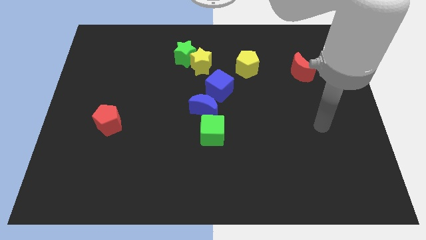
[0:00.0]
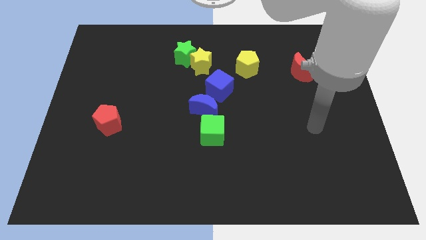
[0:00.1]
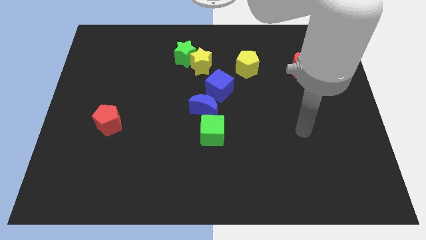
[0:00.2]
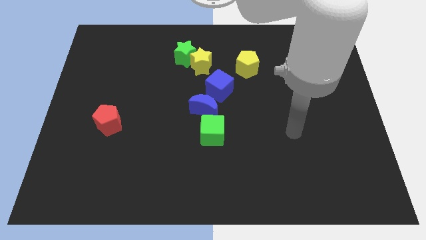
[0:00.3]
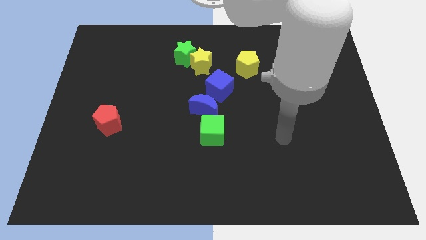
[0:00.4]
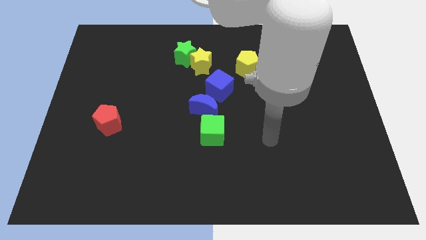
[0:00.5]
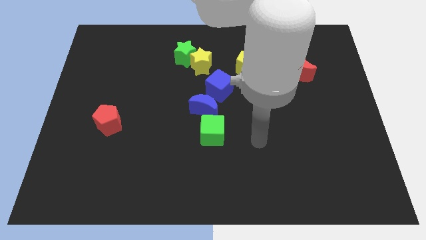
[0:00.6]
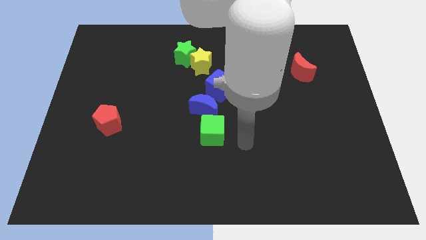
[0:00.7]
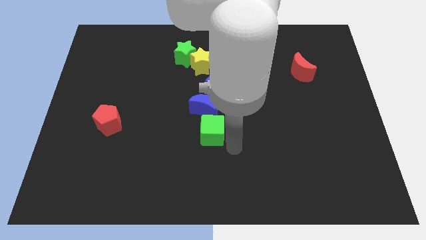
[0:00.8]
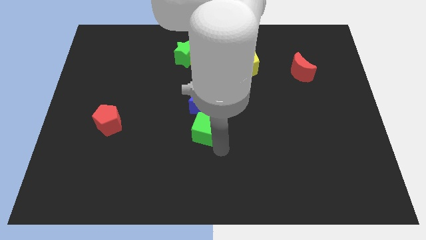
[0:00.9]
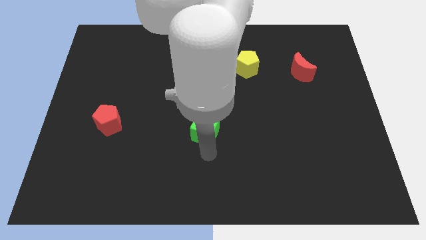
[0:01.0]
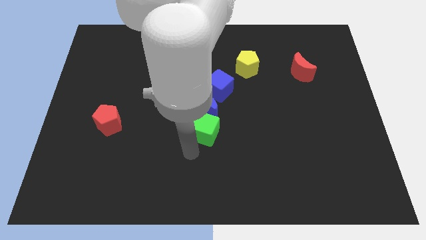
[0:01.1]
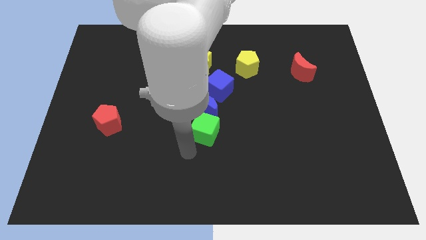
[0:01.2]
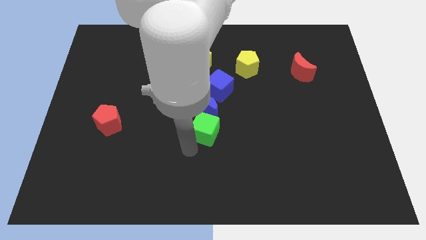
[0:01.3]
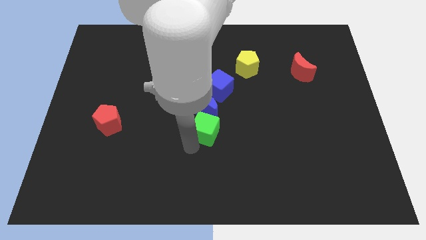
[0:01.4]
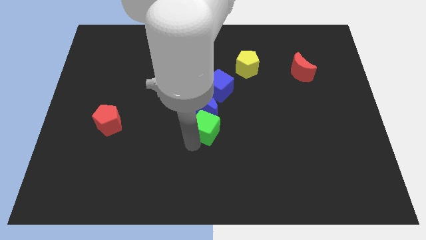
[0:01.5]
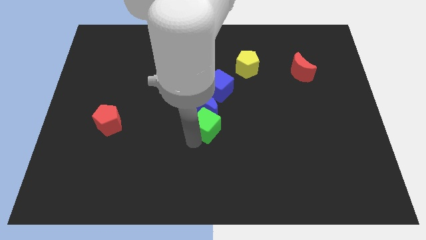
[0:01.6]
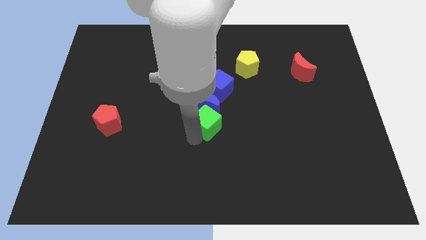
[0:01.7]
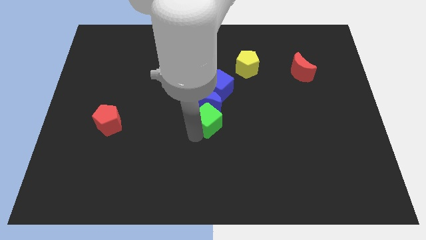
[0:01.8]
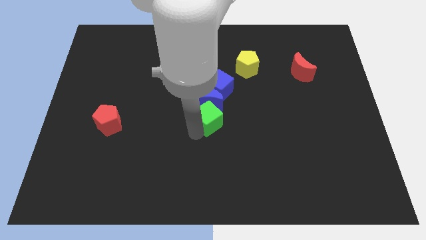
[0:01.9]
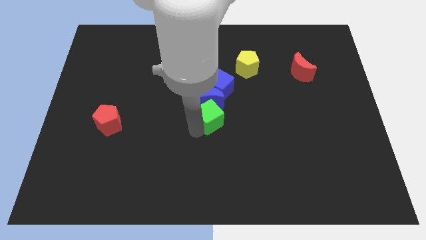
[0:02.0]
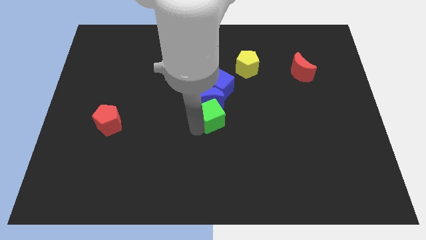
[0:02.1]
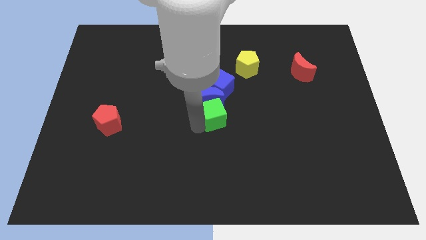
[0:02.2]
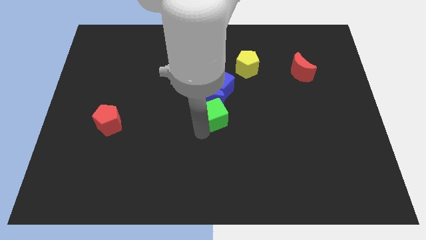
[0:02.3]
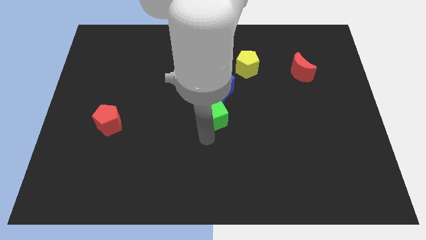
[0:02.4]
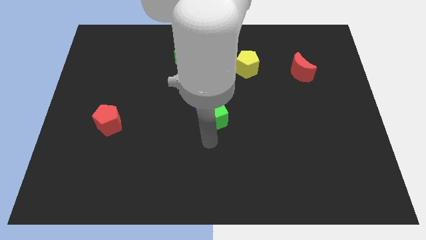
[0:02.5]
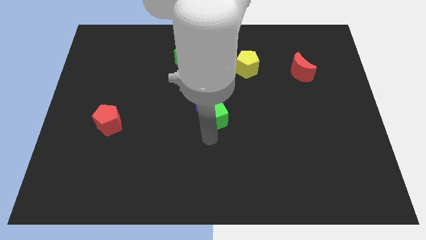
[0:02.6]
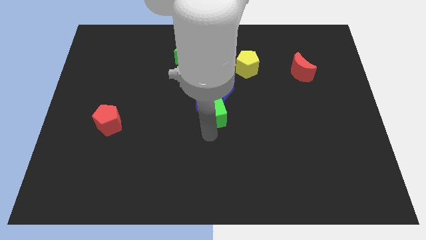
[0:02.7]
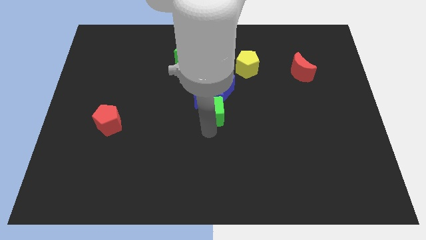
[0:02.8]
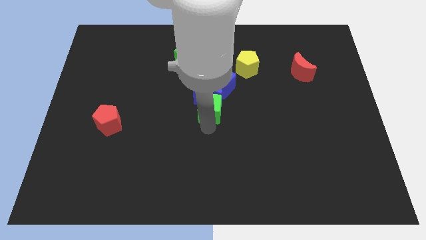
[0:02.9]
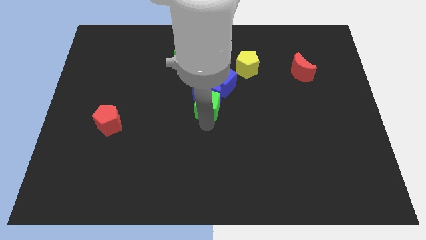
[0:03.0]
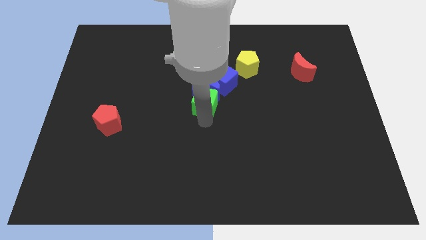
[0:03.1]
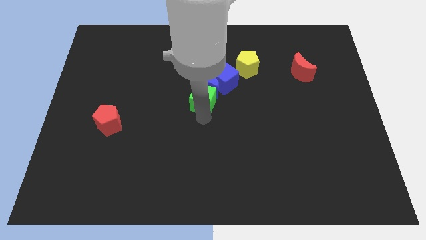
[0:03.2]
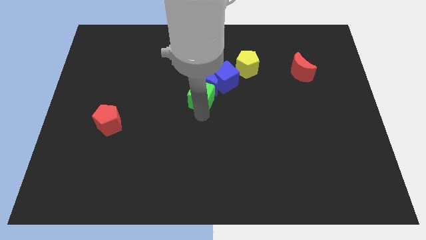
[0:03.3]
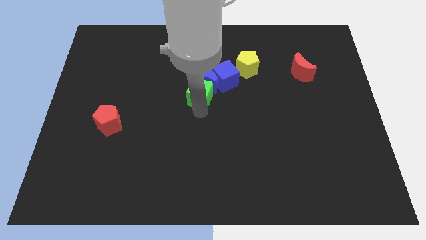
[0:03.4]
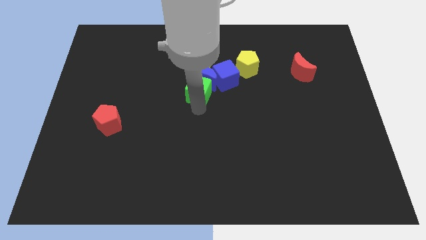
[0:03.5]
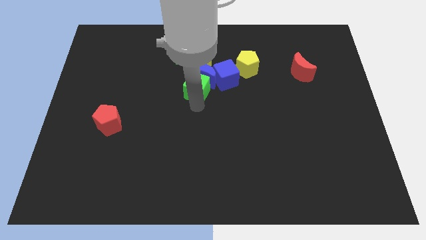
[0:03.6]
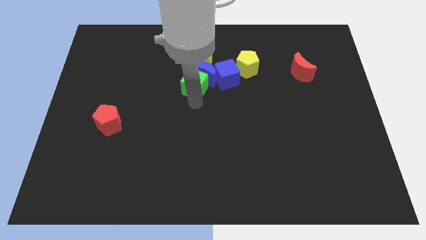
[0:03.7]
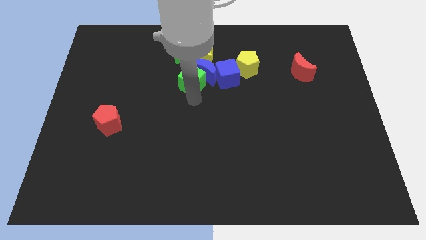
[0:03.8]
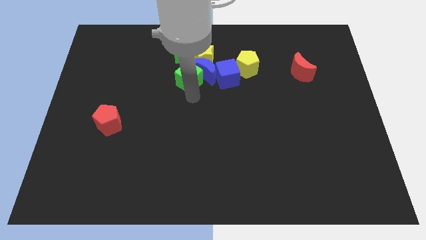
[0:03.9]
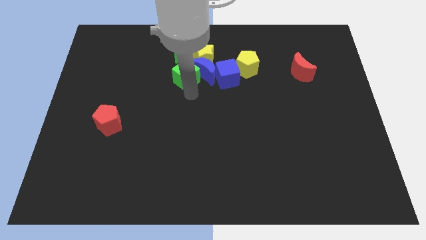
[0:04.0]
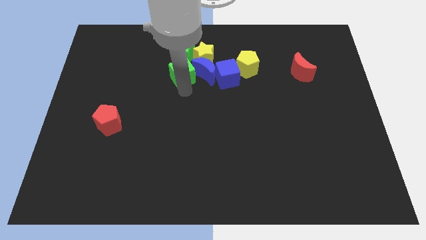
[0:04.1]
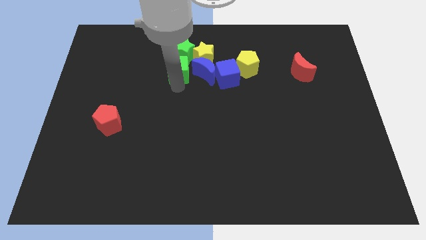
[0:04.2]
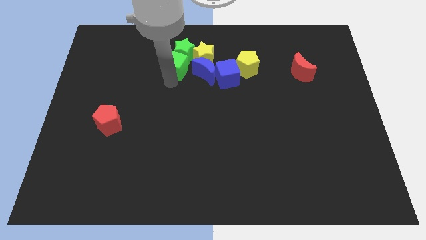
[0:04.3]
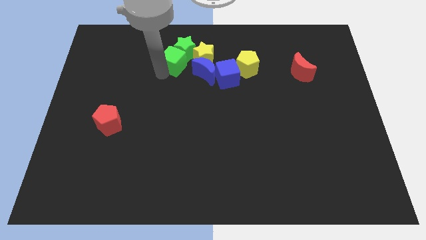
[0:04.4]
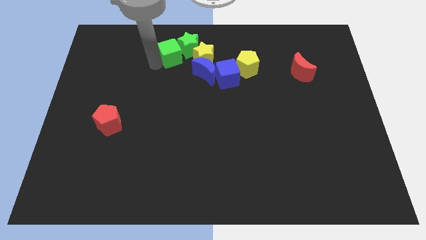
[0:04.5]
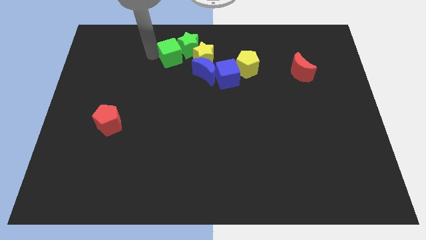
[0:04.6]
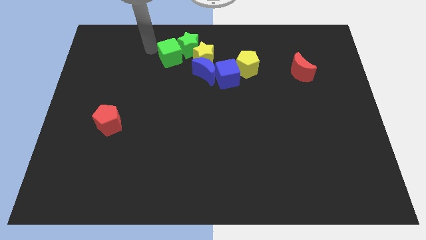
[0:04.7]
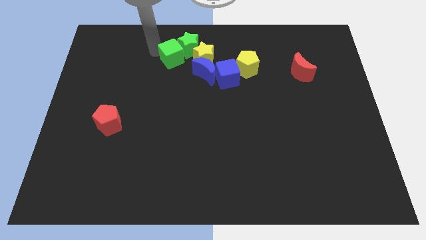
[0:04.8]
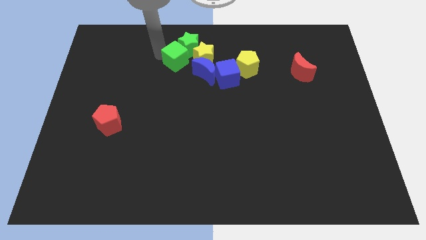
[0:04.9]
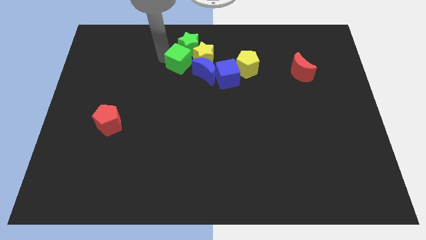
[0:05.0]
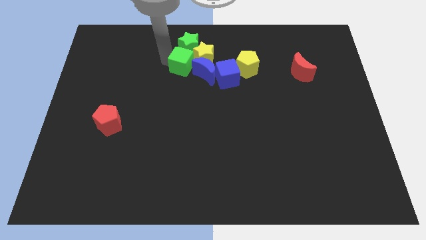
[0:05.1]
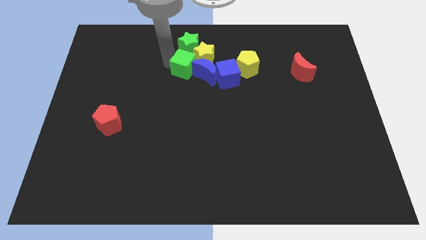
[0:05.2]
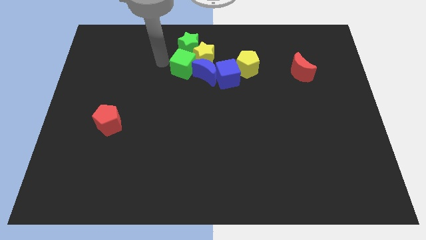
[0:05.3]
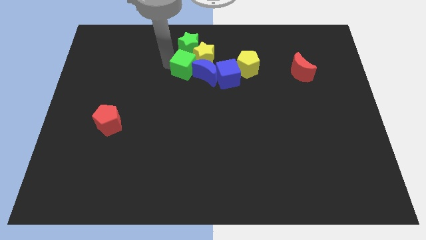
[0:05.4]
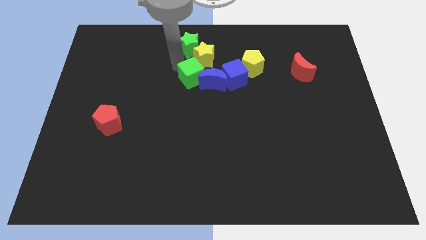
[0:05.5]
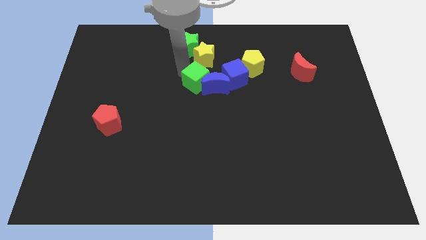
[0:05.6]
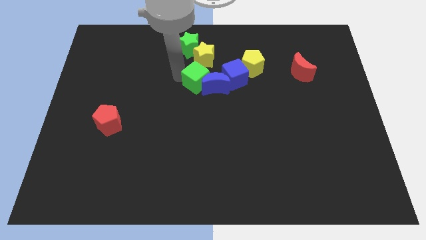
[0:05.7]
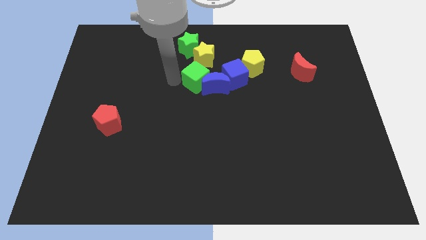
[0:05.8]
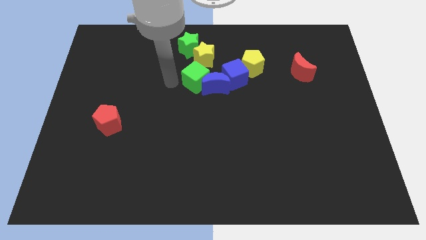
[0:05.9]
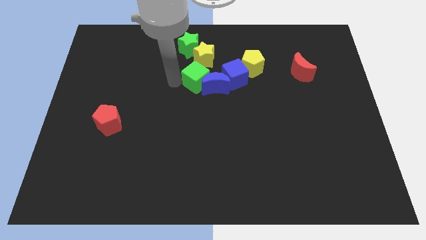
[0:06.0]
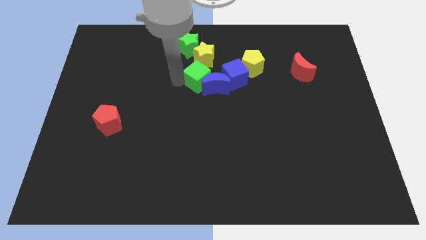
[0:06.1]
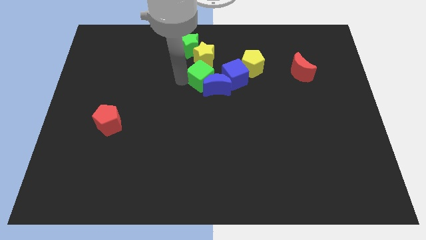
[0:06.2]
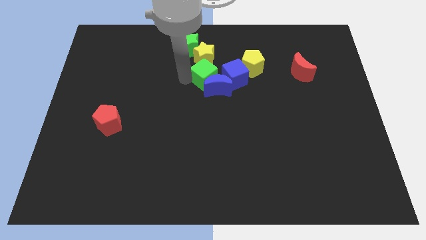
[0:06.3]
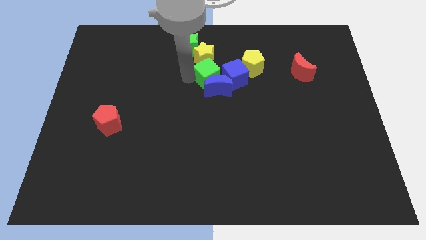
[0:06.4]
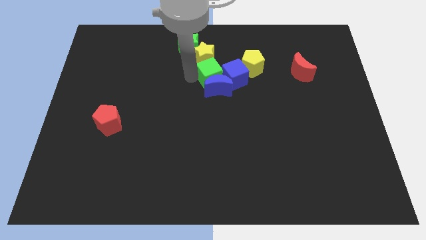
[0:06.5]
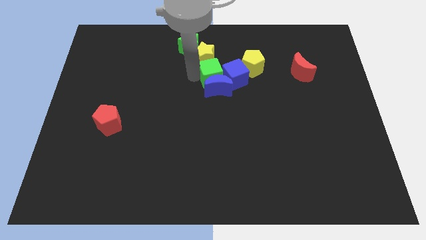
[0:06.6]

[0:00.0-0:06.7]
push the green cube towards the blue cube

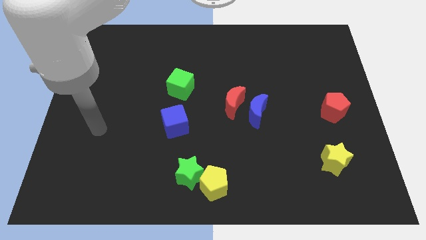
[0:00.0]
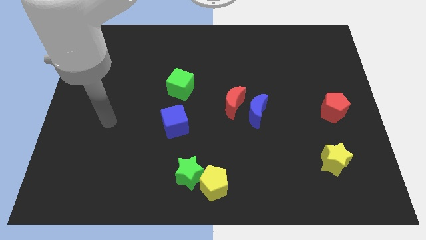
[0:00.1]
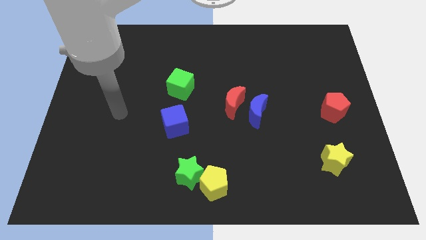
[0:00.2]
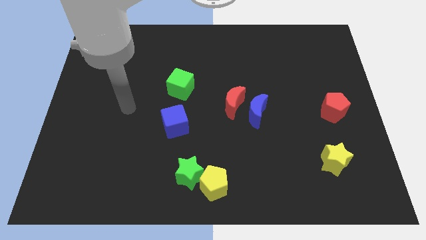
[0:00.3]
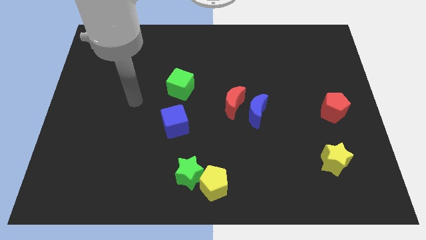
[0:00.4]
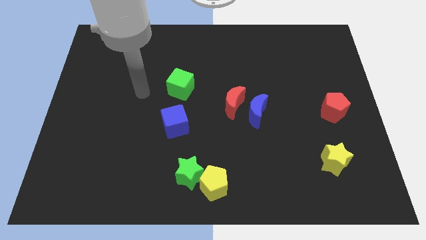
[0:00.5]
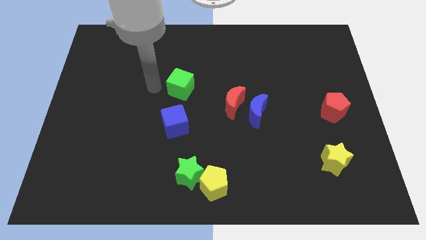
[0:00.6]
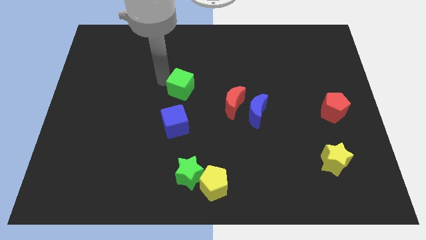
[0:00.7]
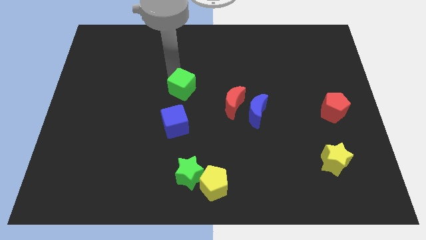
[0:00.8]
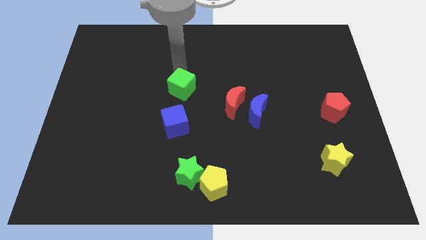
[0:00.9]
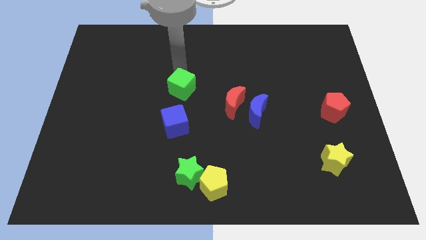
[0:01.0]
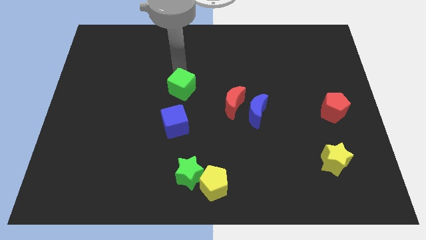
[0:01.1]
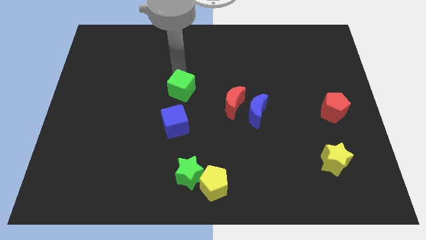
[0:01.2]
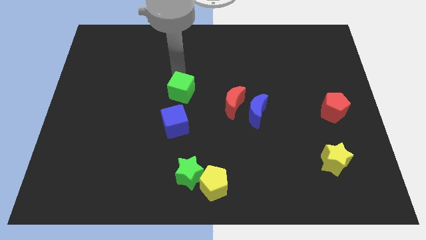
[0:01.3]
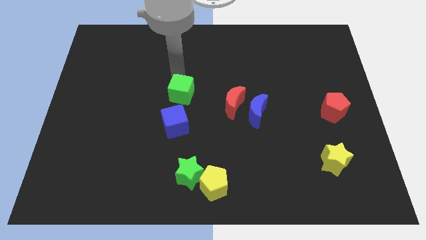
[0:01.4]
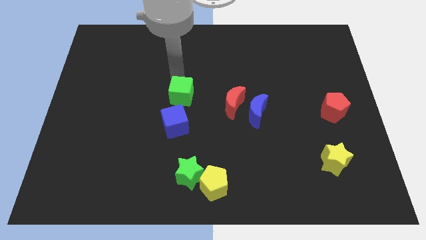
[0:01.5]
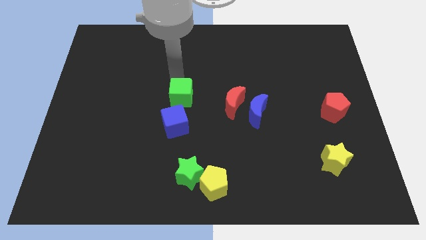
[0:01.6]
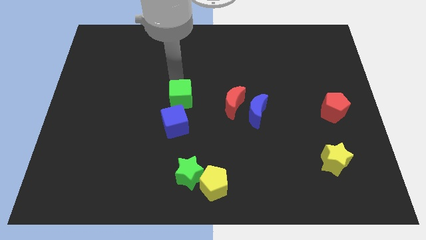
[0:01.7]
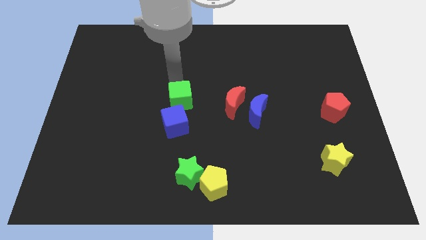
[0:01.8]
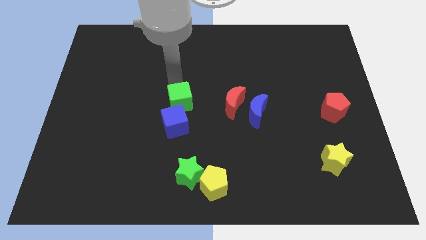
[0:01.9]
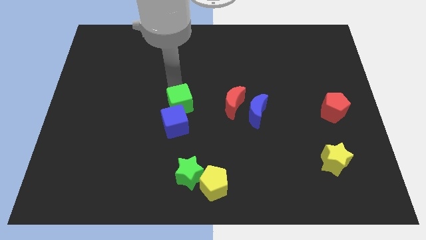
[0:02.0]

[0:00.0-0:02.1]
put the green cube next to the blue cube
